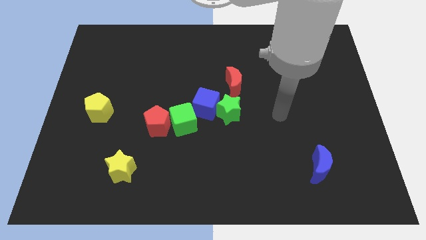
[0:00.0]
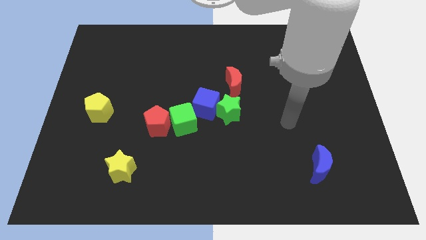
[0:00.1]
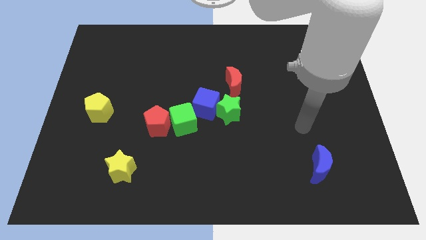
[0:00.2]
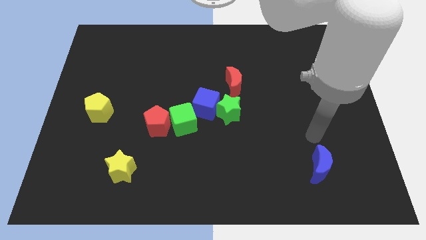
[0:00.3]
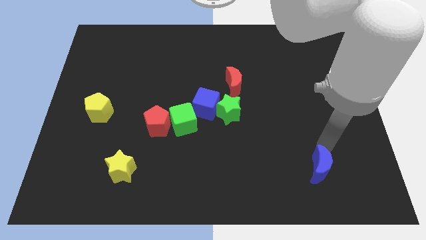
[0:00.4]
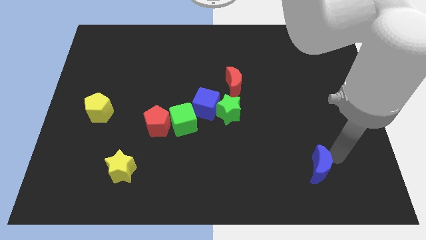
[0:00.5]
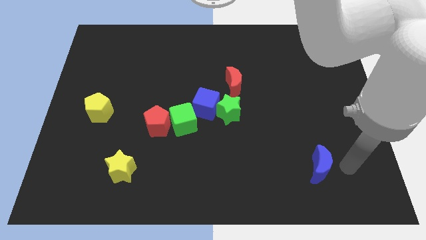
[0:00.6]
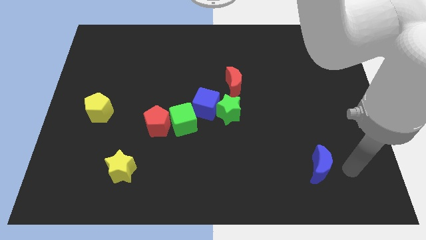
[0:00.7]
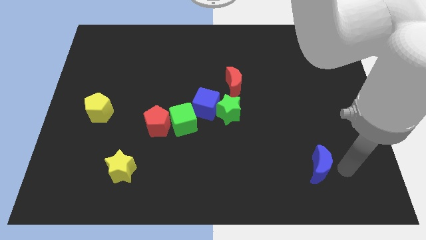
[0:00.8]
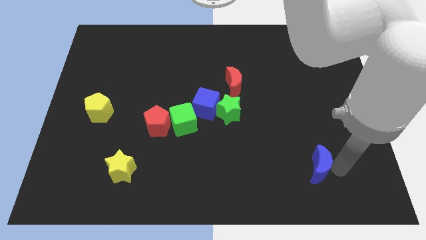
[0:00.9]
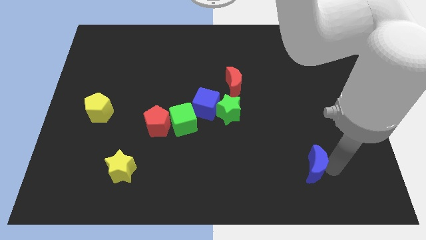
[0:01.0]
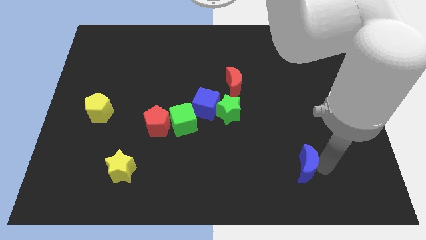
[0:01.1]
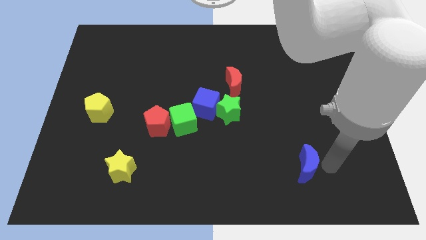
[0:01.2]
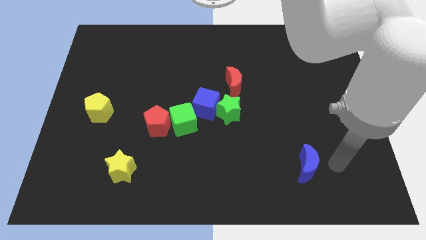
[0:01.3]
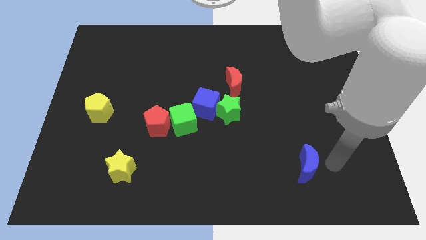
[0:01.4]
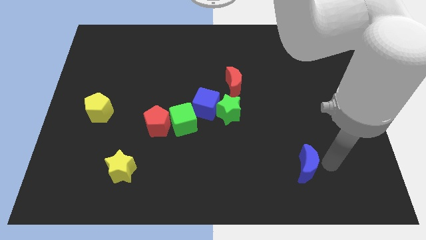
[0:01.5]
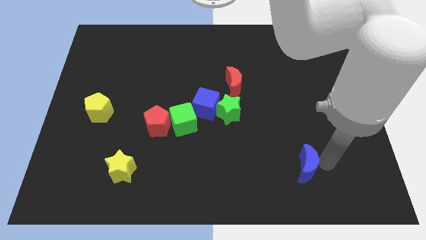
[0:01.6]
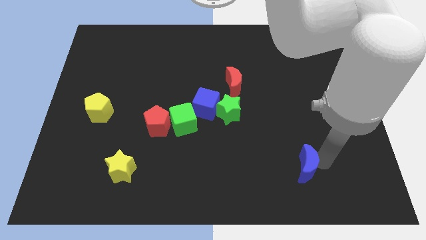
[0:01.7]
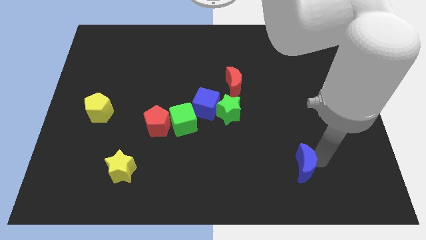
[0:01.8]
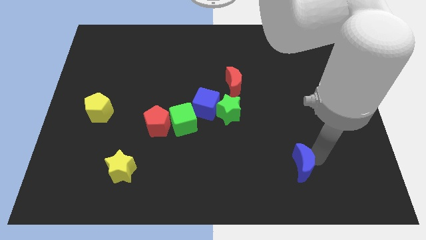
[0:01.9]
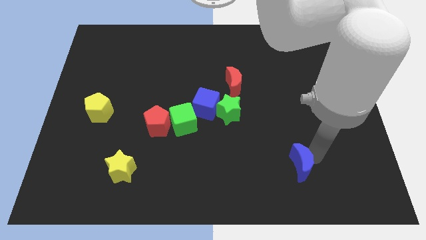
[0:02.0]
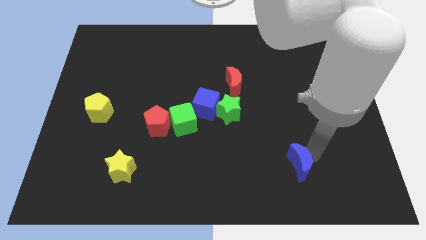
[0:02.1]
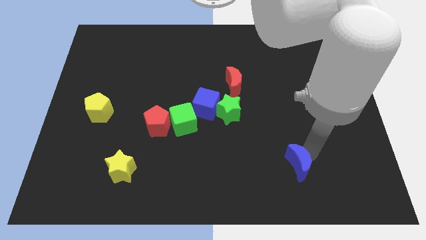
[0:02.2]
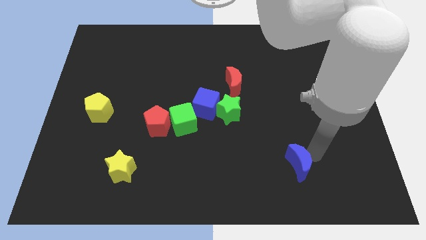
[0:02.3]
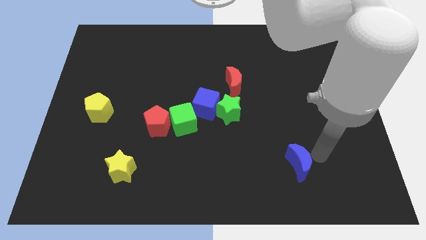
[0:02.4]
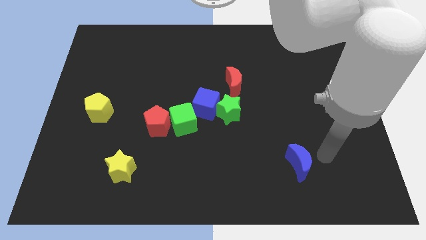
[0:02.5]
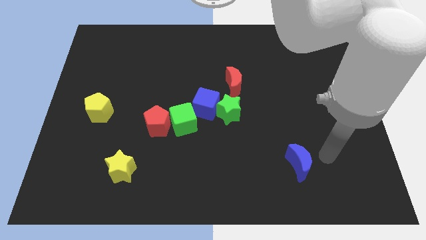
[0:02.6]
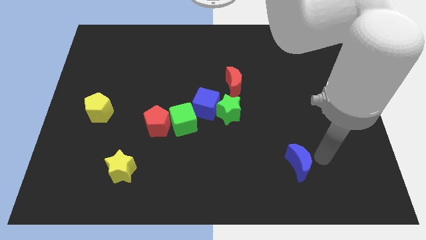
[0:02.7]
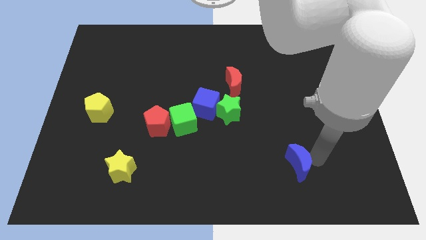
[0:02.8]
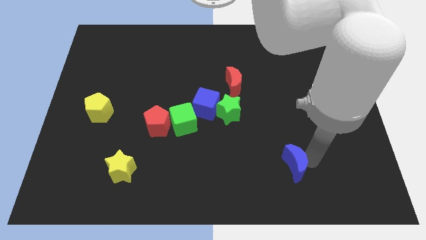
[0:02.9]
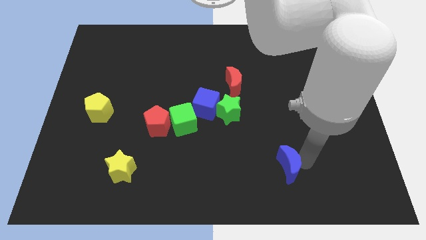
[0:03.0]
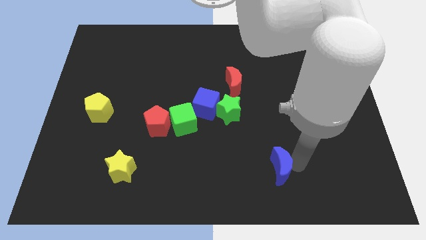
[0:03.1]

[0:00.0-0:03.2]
slightly move the blue moon to the left

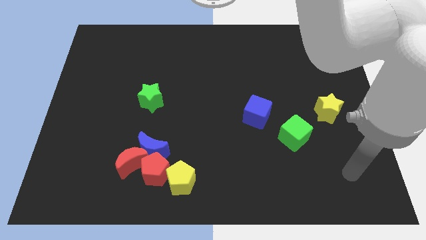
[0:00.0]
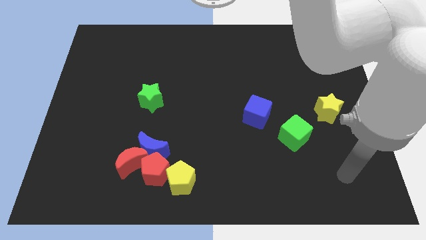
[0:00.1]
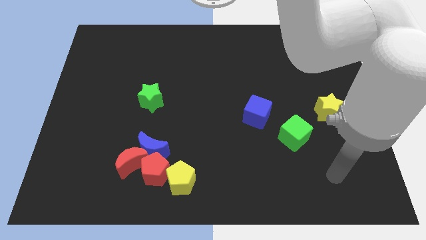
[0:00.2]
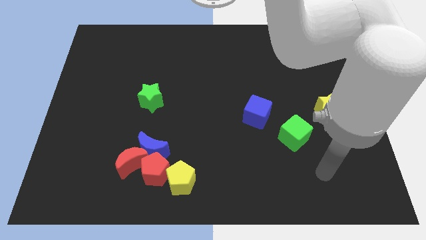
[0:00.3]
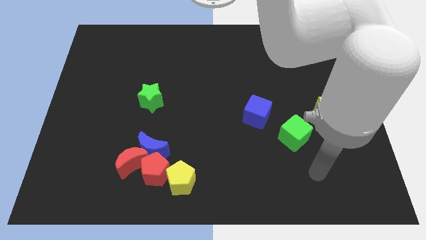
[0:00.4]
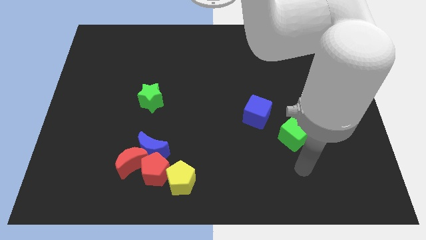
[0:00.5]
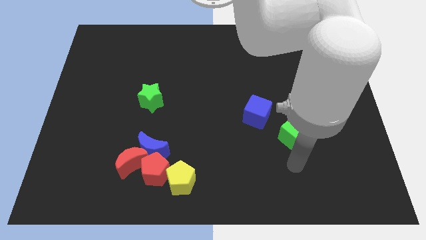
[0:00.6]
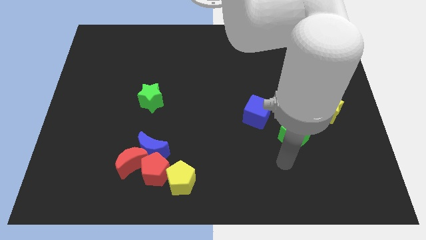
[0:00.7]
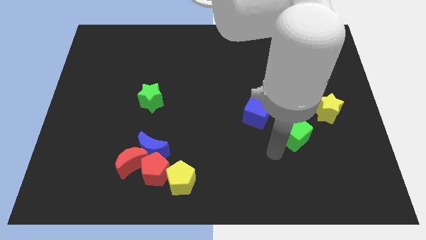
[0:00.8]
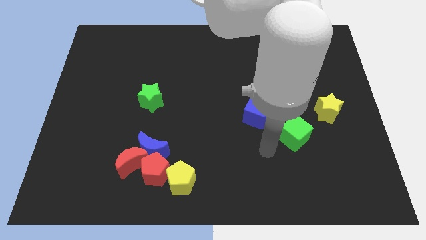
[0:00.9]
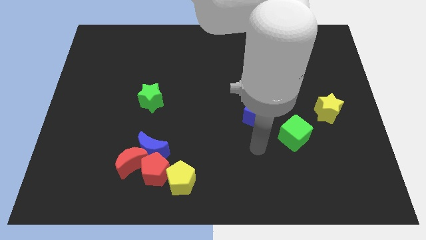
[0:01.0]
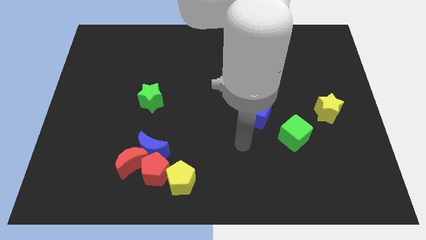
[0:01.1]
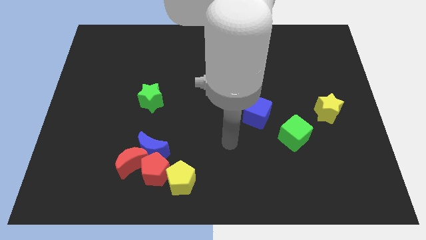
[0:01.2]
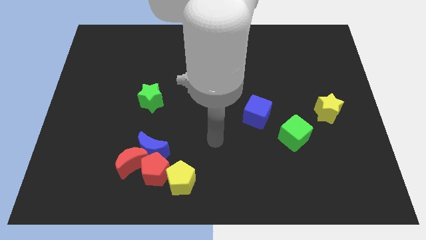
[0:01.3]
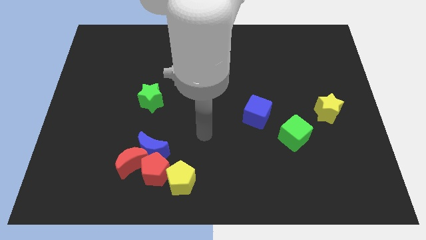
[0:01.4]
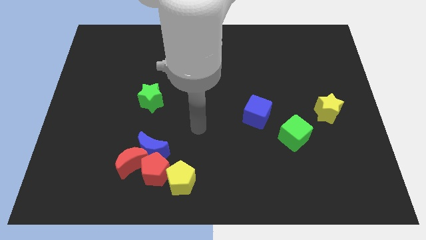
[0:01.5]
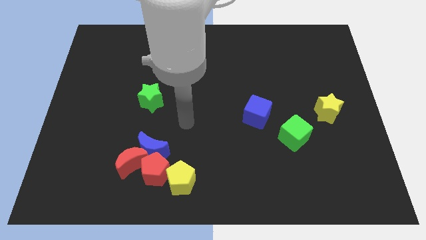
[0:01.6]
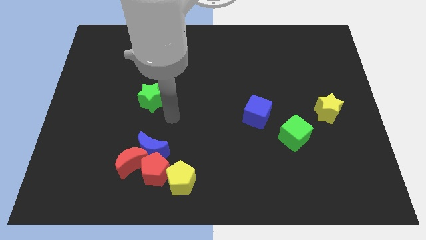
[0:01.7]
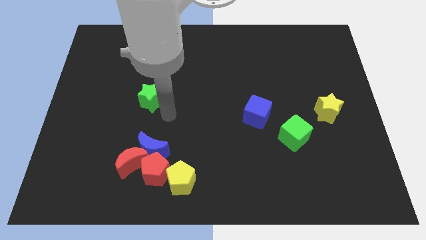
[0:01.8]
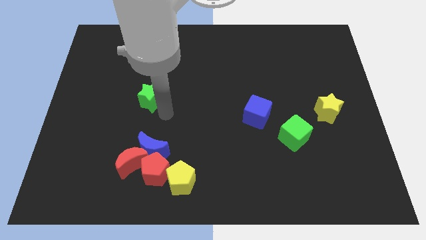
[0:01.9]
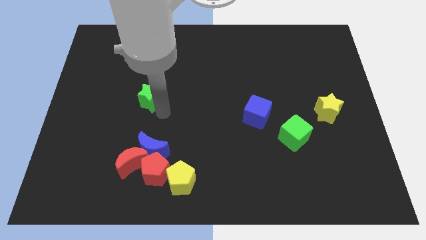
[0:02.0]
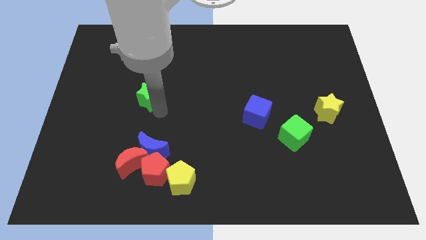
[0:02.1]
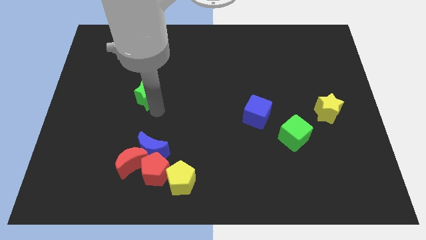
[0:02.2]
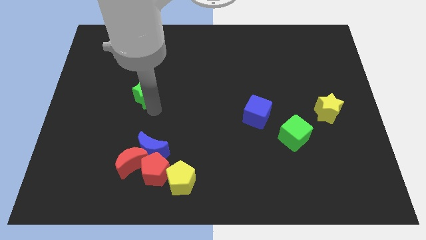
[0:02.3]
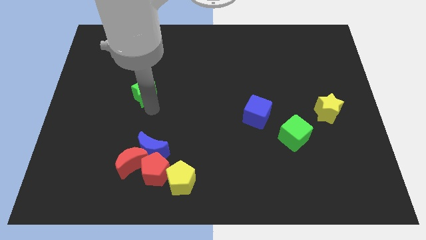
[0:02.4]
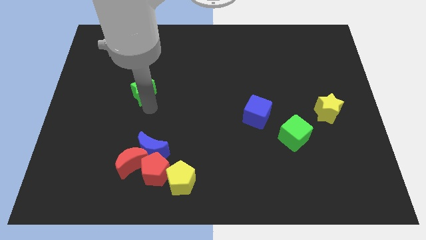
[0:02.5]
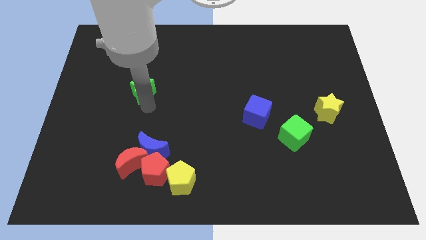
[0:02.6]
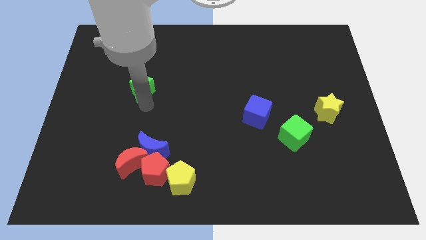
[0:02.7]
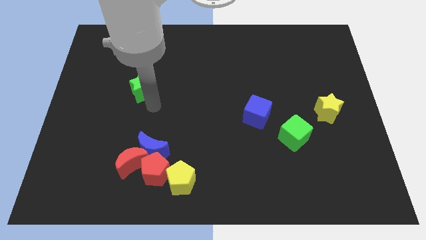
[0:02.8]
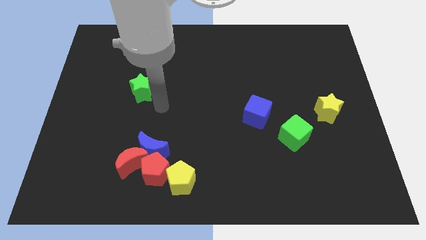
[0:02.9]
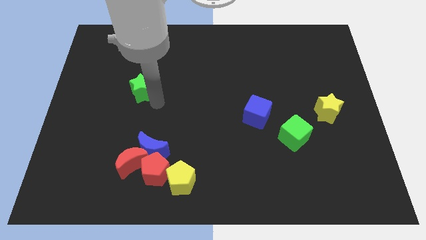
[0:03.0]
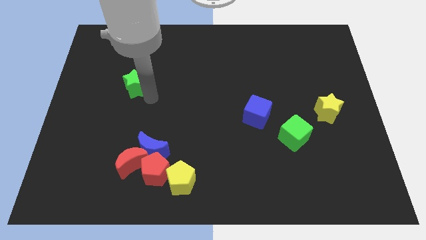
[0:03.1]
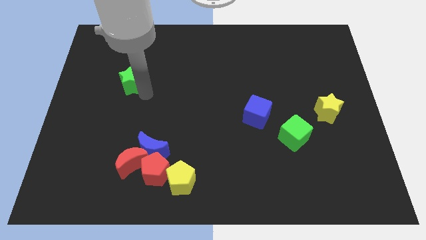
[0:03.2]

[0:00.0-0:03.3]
slightly slide the green star diagonally upwards and to the left

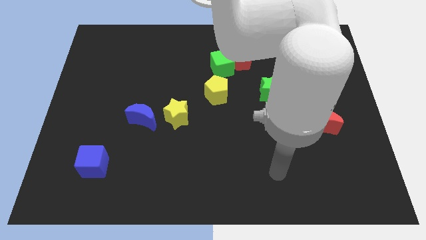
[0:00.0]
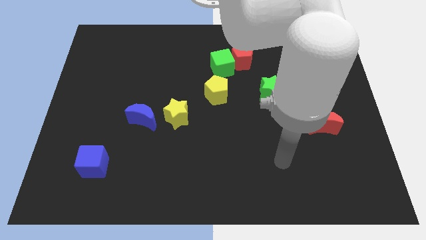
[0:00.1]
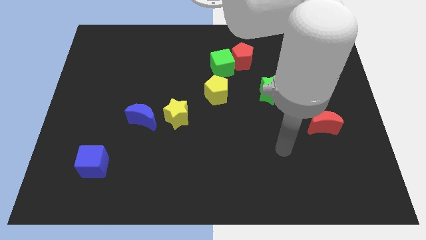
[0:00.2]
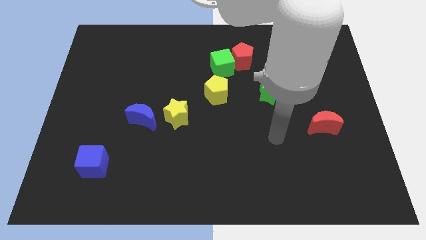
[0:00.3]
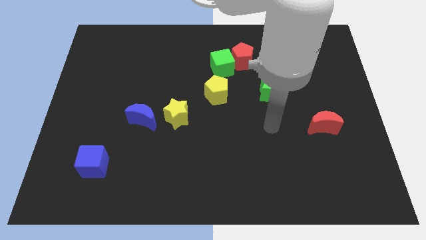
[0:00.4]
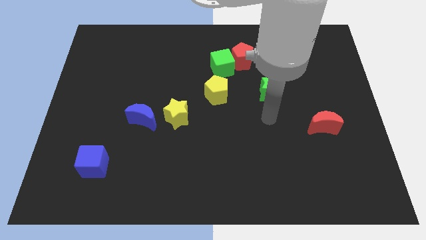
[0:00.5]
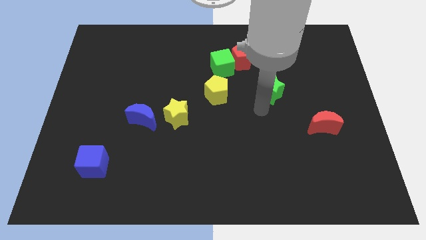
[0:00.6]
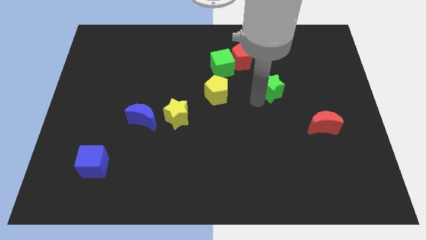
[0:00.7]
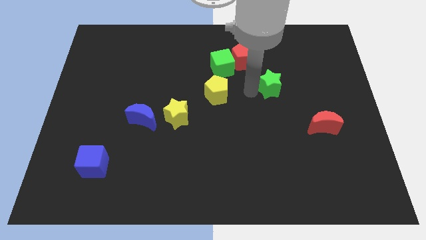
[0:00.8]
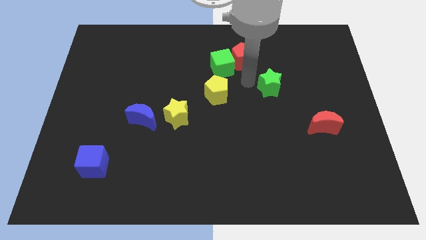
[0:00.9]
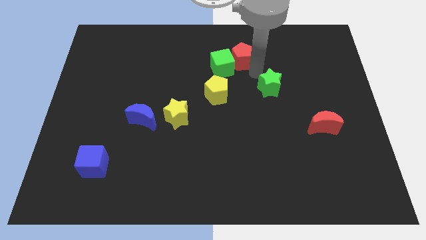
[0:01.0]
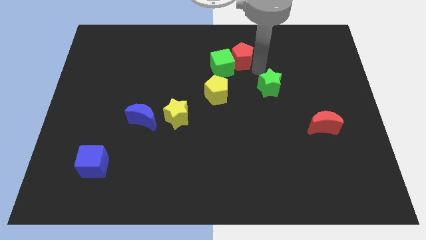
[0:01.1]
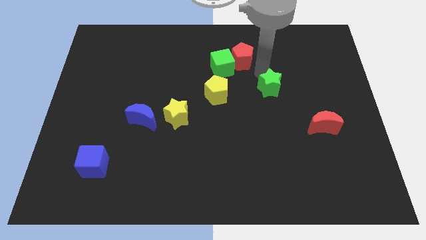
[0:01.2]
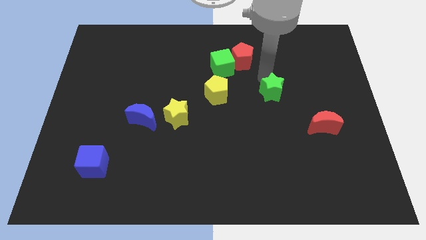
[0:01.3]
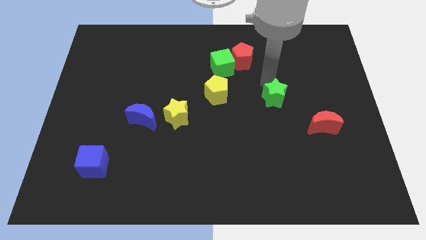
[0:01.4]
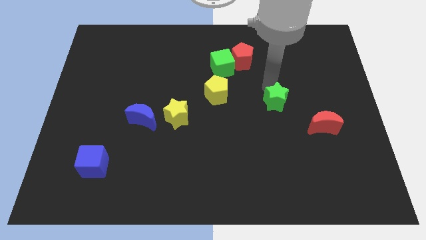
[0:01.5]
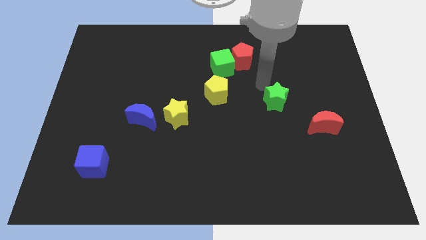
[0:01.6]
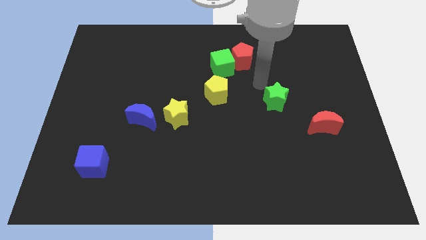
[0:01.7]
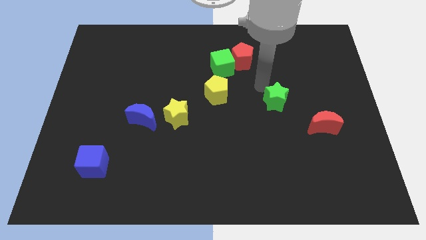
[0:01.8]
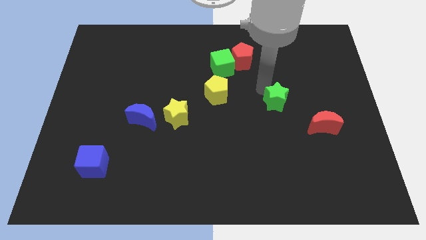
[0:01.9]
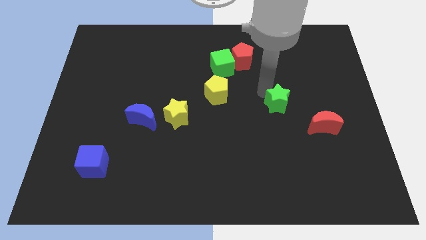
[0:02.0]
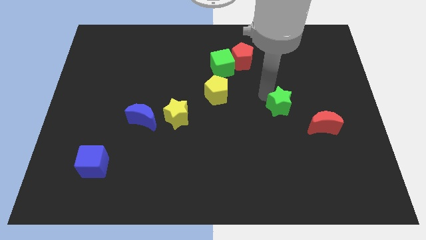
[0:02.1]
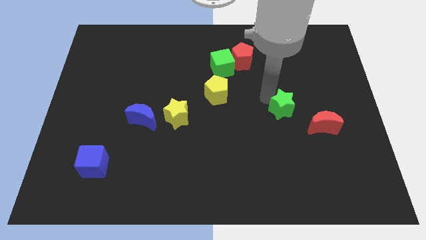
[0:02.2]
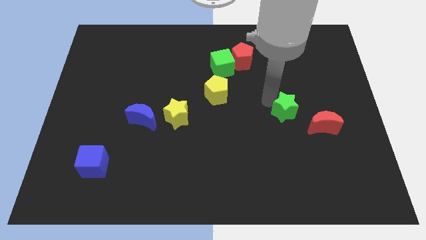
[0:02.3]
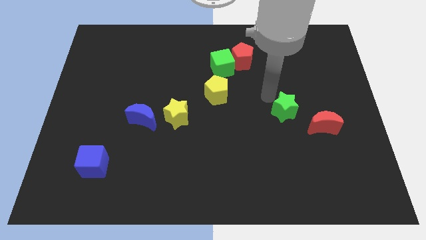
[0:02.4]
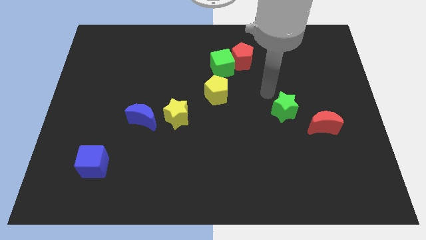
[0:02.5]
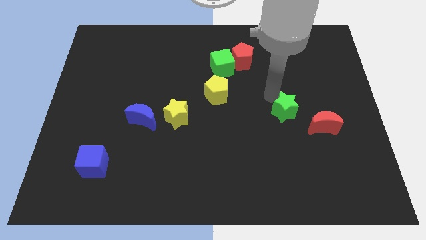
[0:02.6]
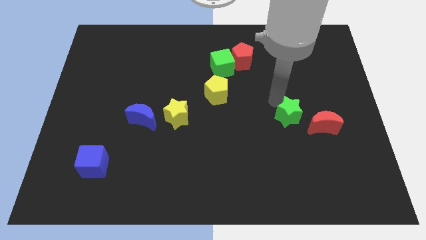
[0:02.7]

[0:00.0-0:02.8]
move the green star a little down and right
